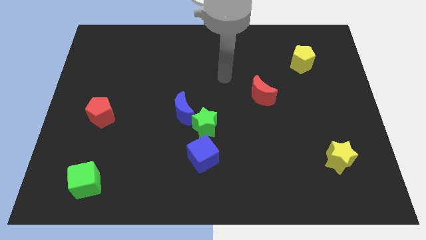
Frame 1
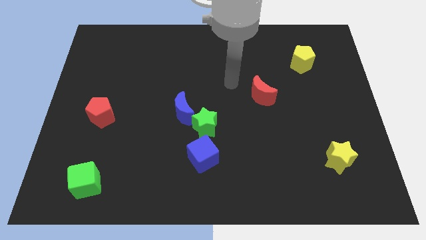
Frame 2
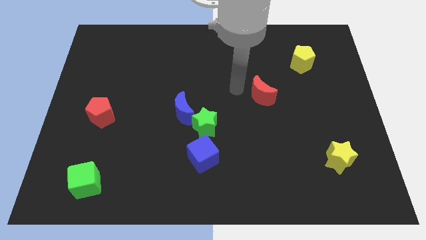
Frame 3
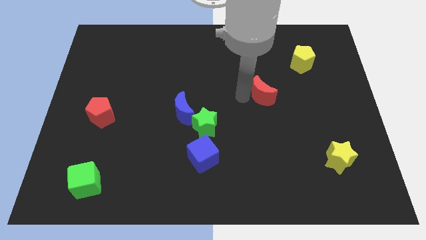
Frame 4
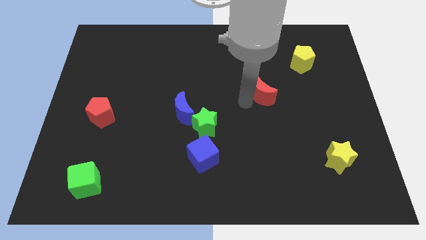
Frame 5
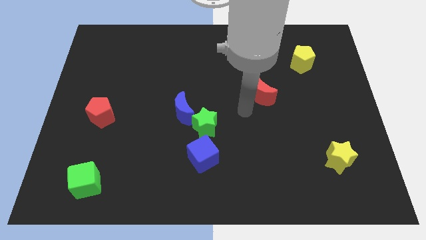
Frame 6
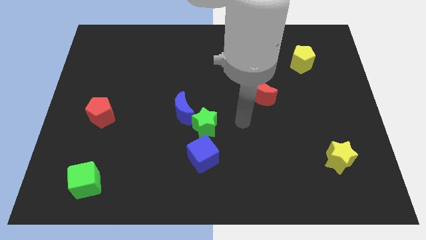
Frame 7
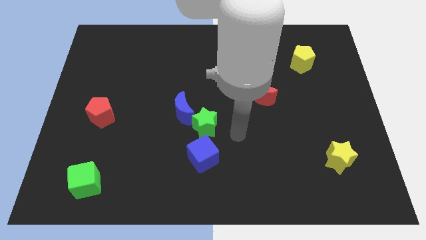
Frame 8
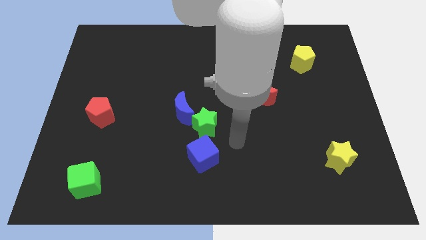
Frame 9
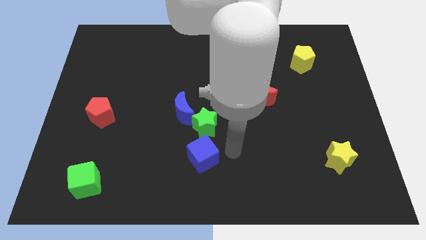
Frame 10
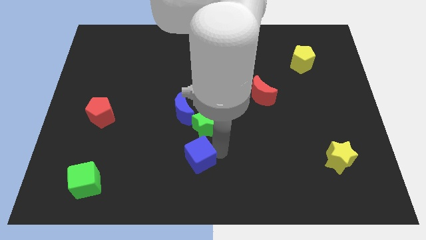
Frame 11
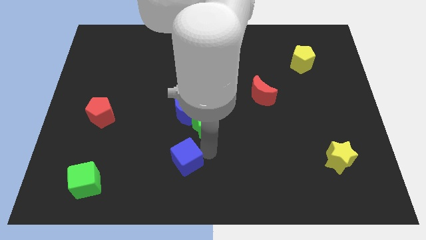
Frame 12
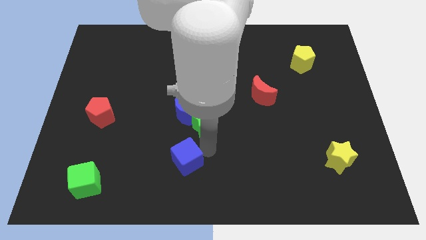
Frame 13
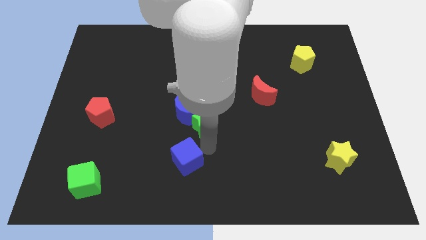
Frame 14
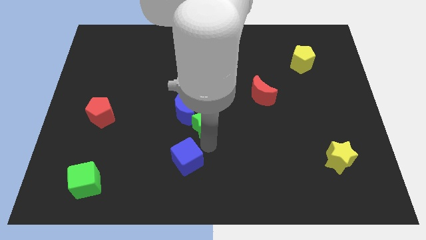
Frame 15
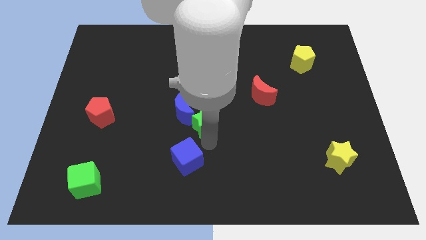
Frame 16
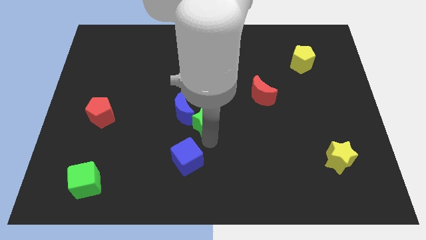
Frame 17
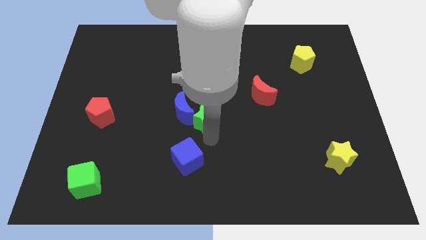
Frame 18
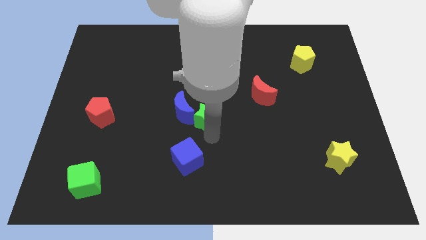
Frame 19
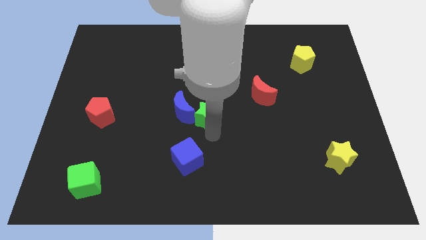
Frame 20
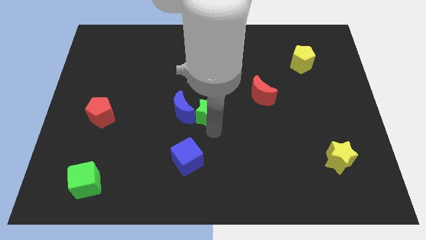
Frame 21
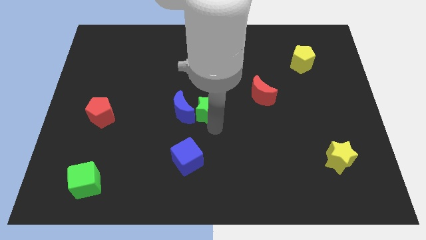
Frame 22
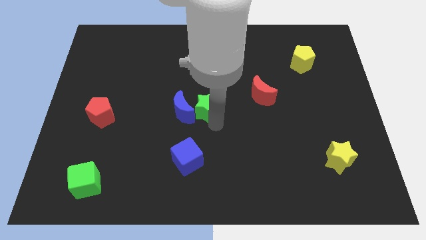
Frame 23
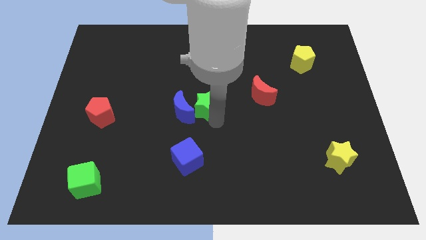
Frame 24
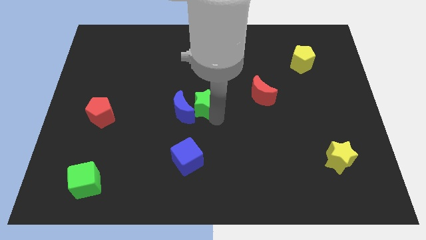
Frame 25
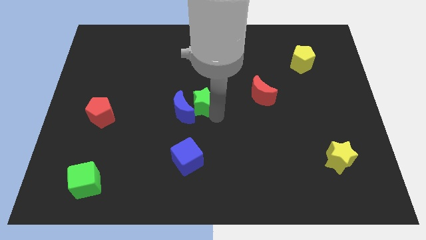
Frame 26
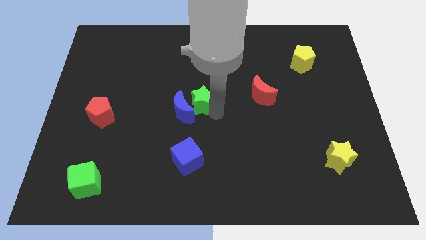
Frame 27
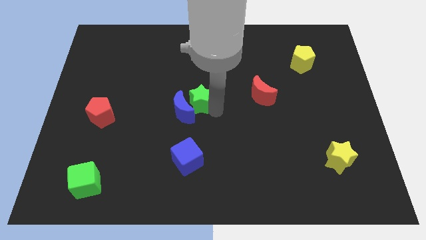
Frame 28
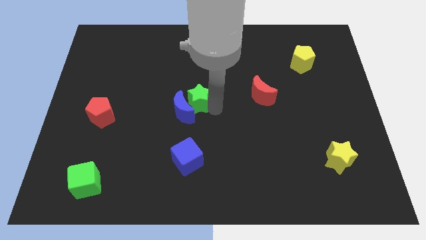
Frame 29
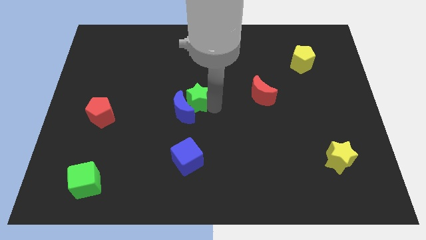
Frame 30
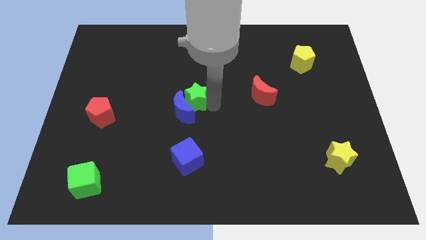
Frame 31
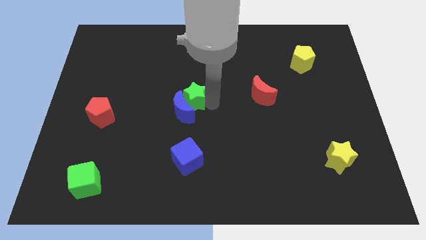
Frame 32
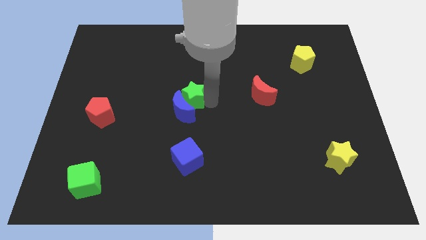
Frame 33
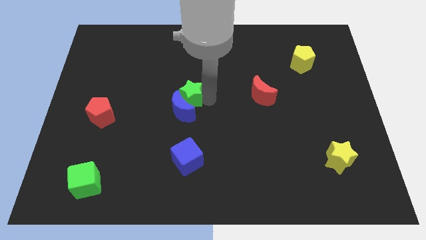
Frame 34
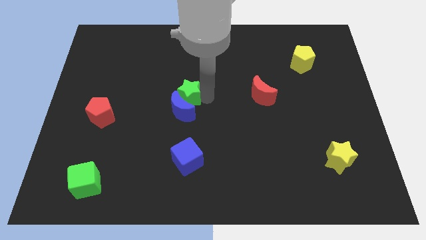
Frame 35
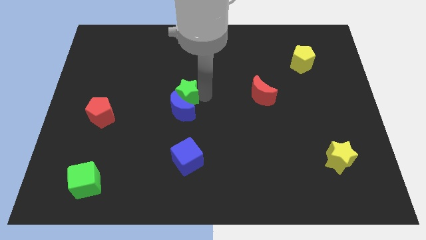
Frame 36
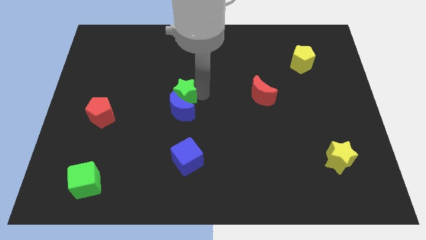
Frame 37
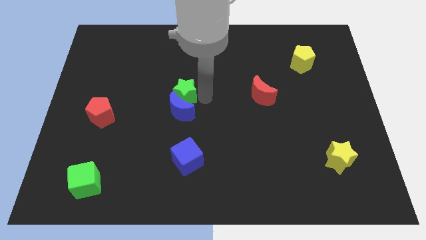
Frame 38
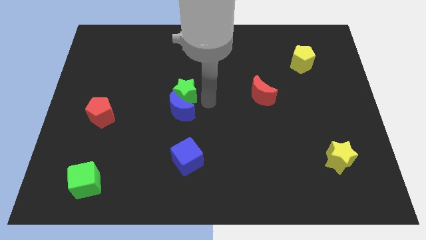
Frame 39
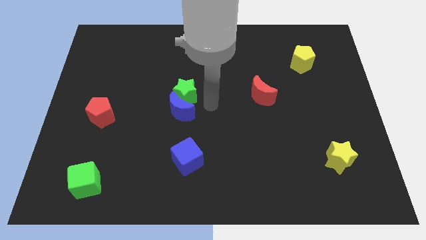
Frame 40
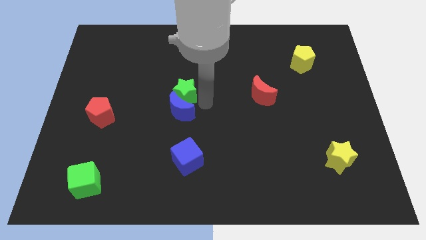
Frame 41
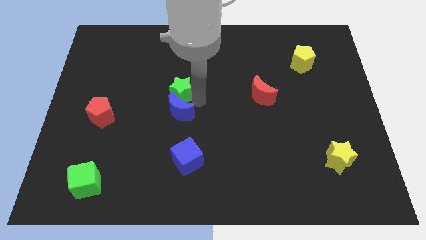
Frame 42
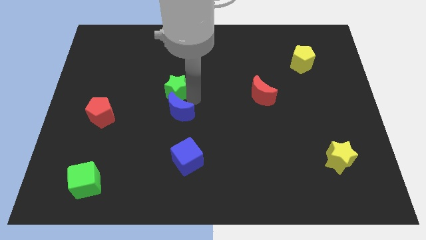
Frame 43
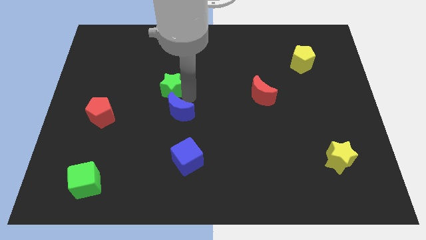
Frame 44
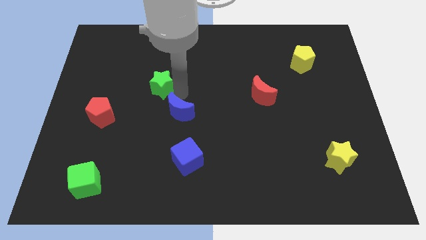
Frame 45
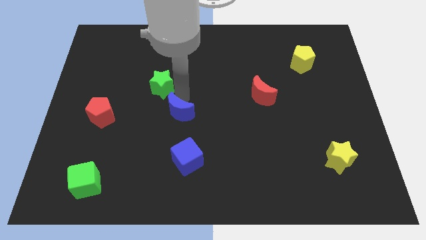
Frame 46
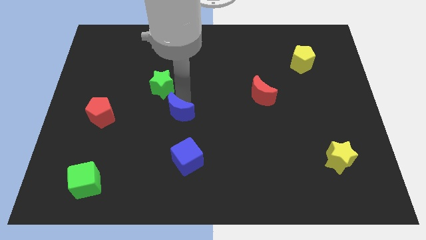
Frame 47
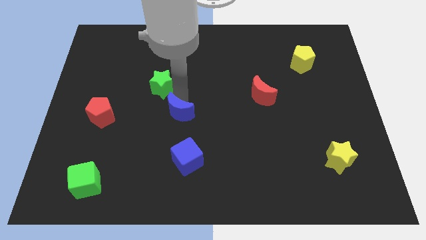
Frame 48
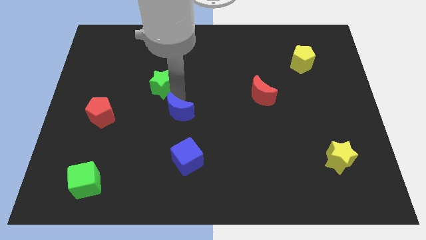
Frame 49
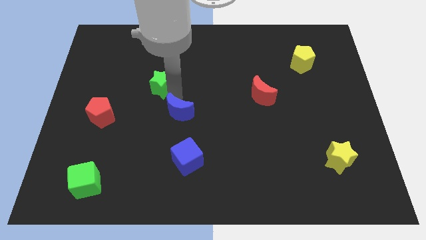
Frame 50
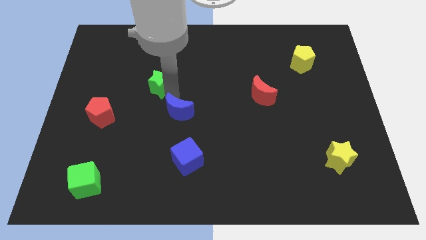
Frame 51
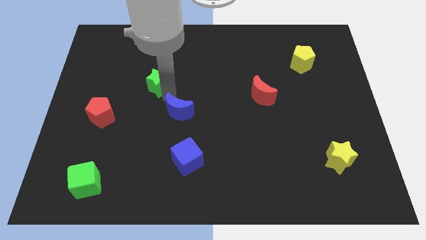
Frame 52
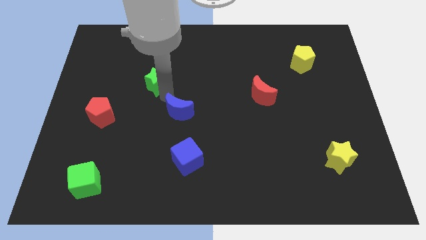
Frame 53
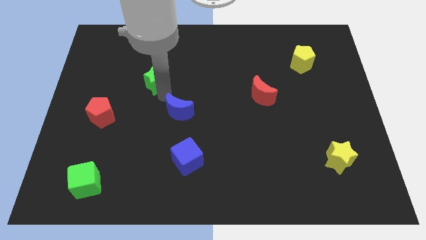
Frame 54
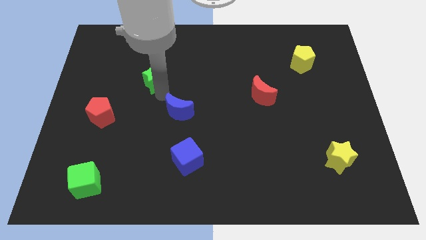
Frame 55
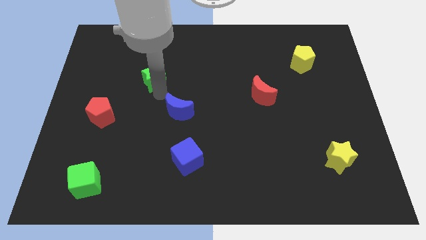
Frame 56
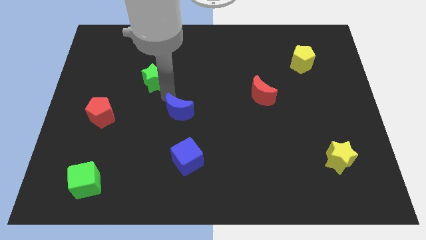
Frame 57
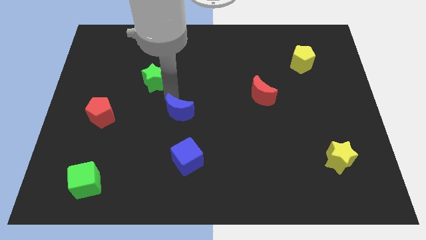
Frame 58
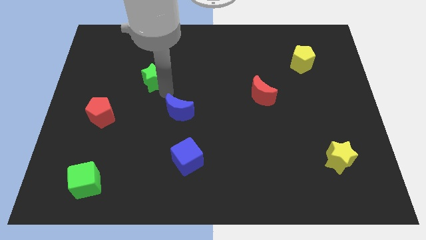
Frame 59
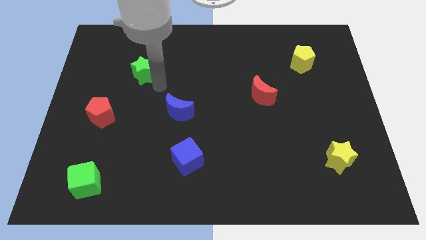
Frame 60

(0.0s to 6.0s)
push the green star upwards and to the left

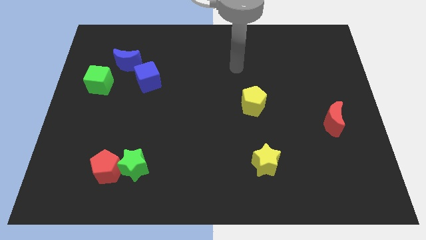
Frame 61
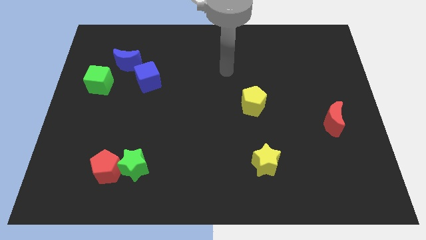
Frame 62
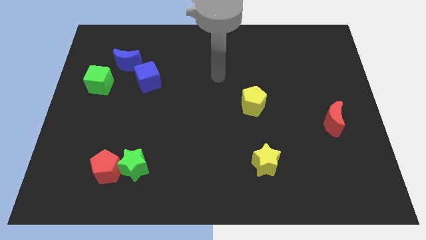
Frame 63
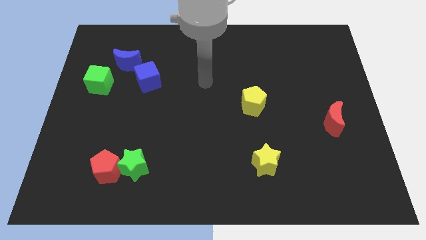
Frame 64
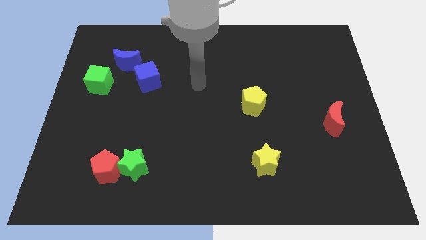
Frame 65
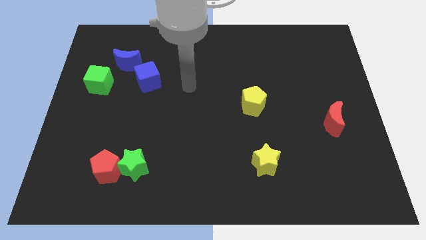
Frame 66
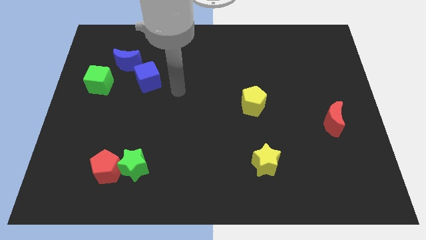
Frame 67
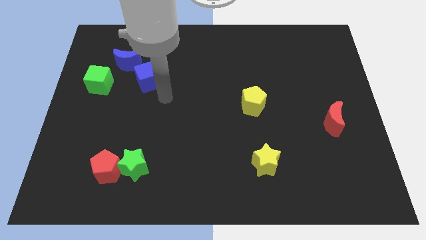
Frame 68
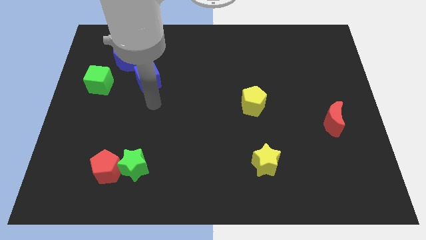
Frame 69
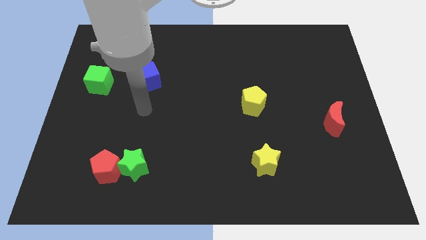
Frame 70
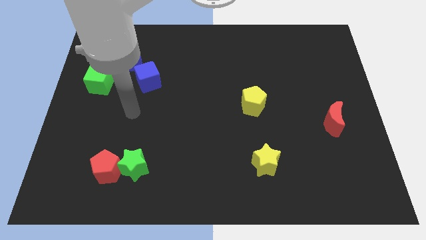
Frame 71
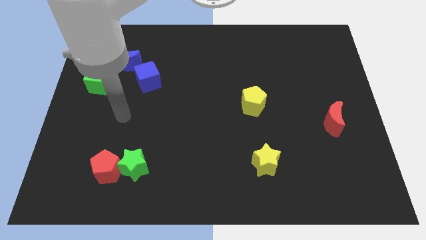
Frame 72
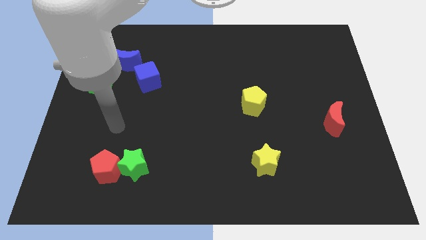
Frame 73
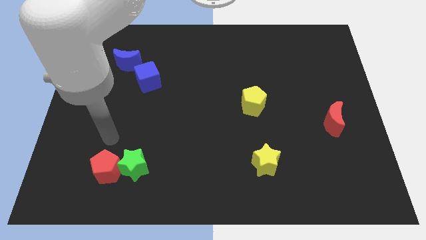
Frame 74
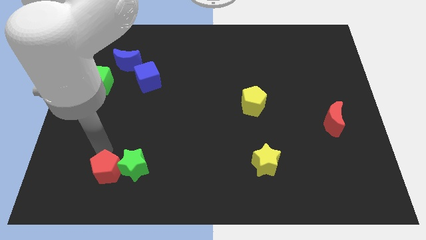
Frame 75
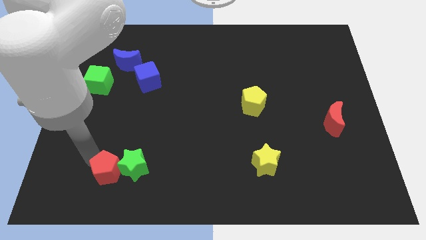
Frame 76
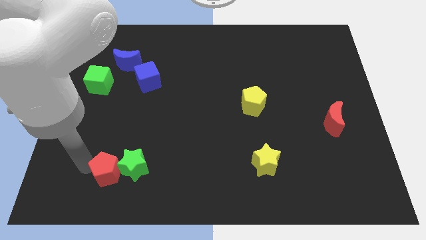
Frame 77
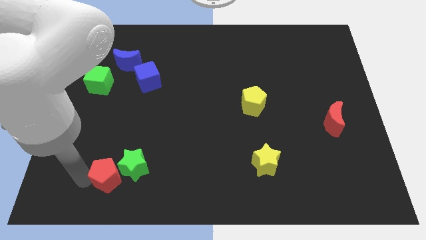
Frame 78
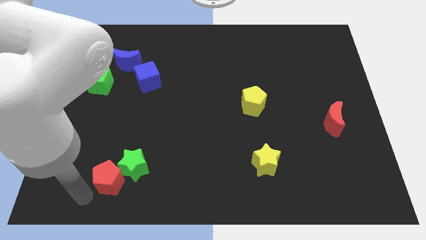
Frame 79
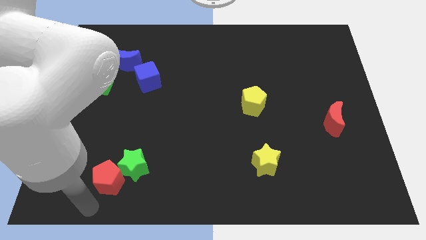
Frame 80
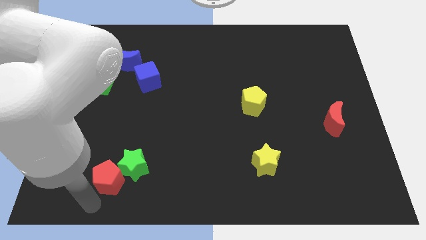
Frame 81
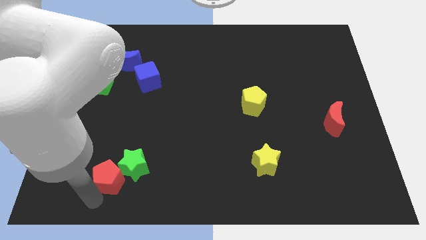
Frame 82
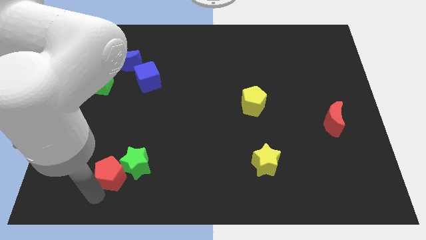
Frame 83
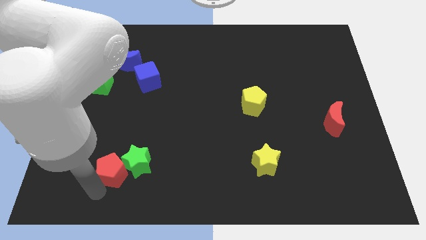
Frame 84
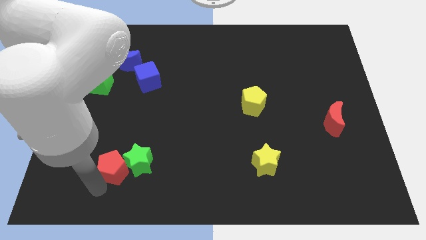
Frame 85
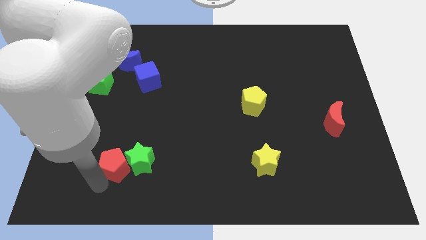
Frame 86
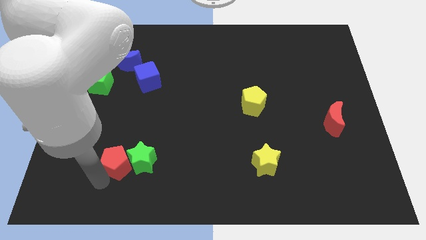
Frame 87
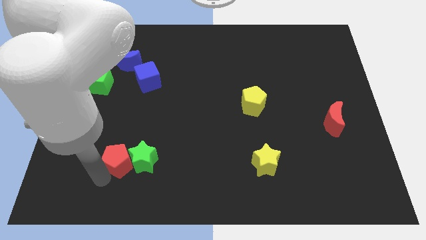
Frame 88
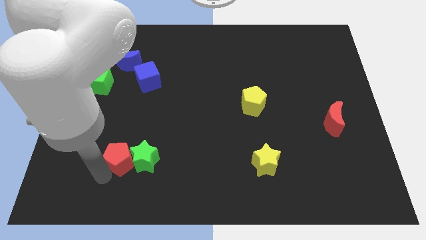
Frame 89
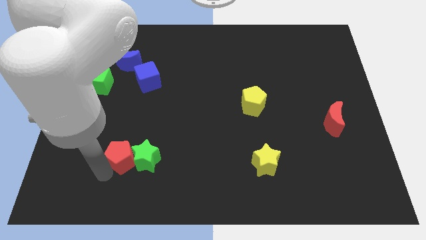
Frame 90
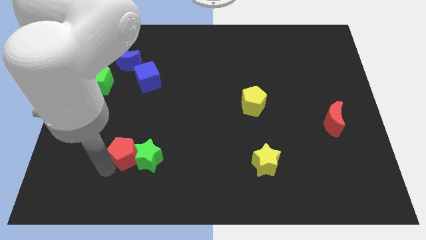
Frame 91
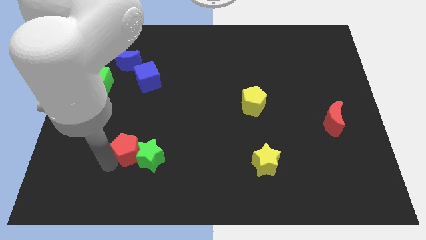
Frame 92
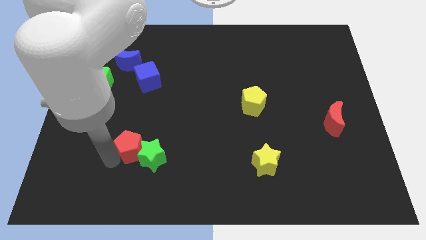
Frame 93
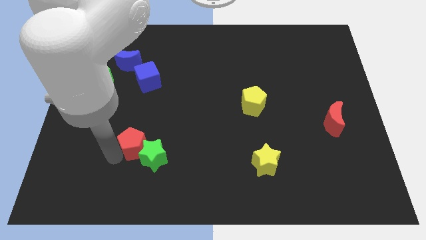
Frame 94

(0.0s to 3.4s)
slightly slide the red pentagon up and right diagonally
